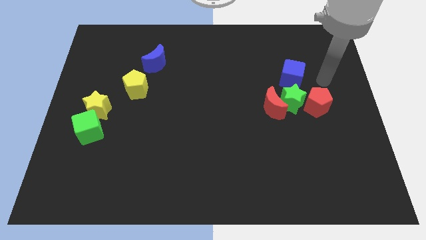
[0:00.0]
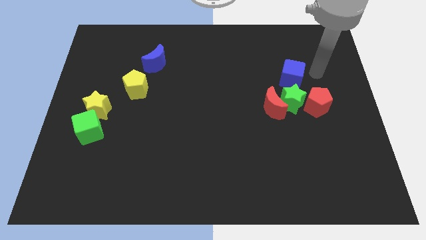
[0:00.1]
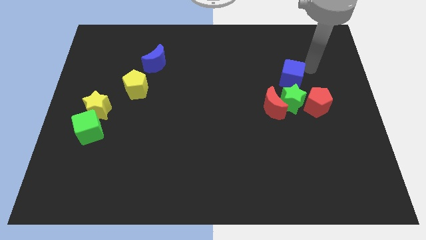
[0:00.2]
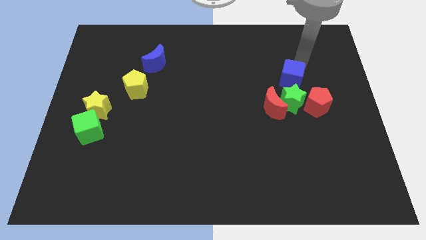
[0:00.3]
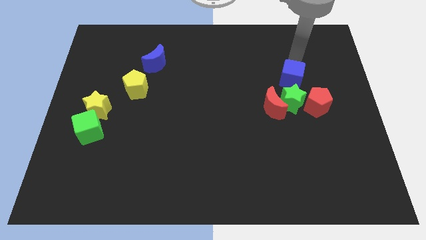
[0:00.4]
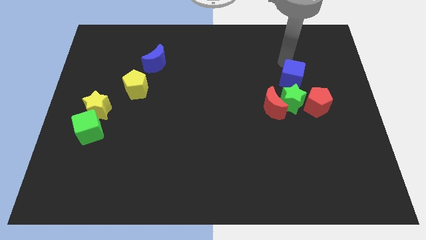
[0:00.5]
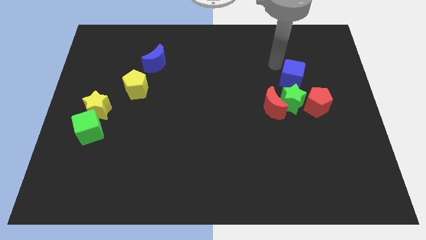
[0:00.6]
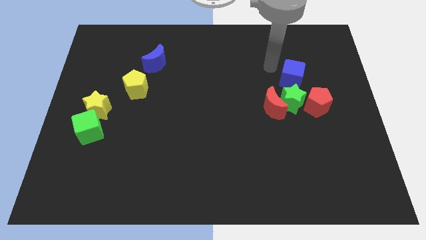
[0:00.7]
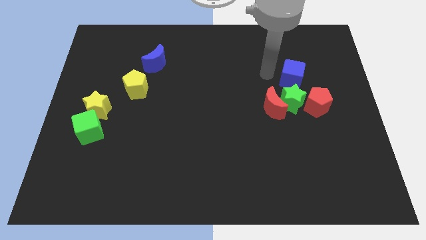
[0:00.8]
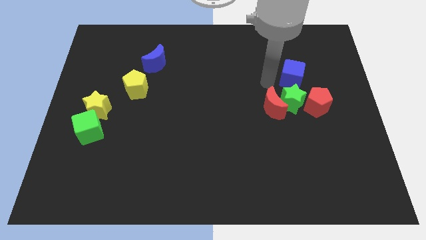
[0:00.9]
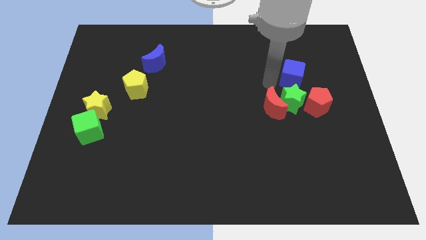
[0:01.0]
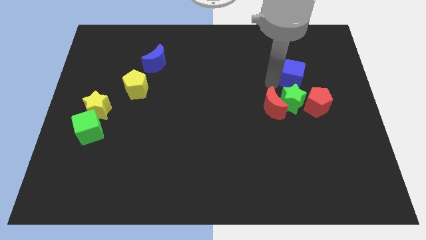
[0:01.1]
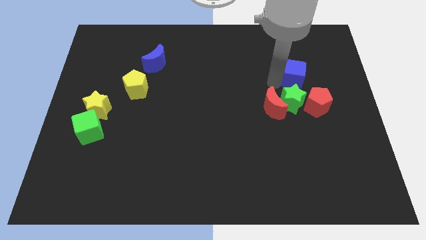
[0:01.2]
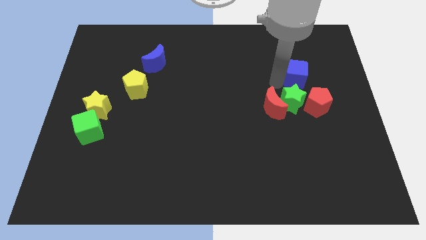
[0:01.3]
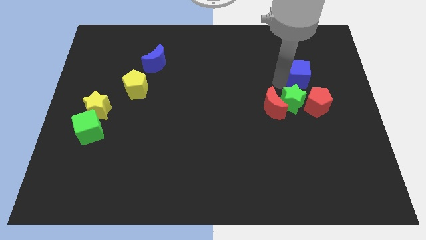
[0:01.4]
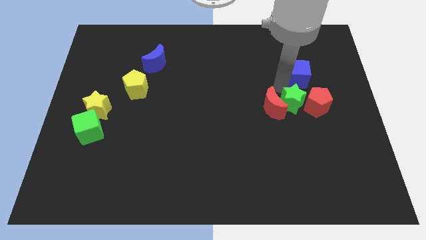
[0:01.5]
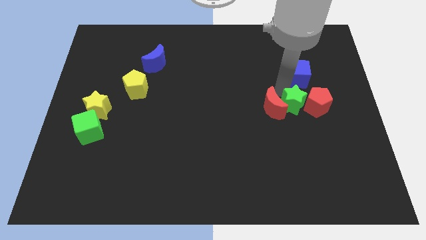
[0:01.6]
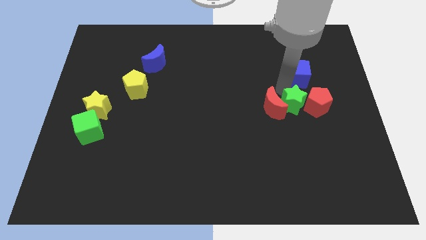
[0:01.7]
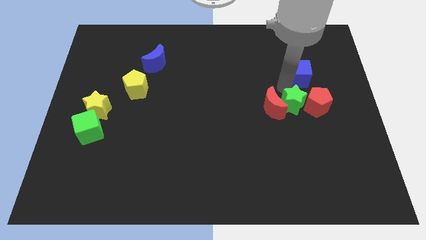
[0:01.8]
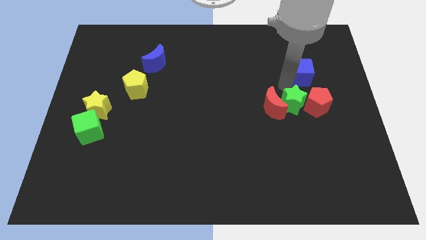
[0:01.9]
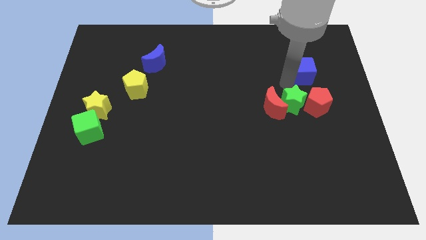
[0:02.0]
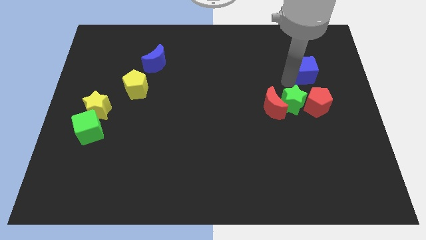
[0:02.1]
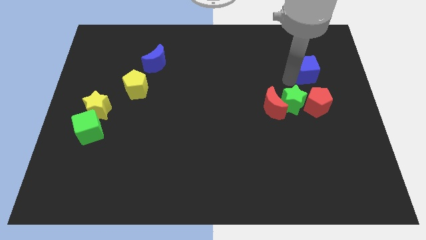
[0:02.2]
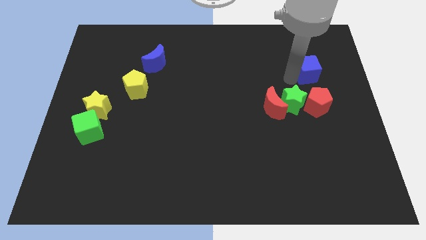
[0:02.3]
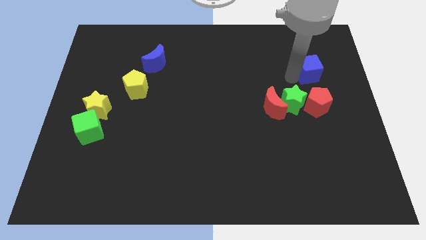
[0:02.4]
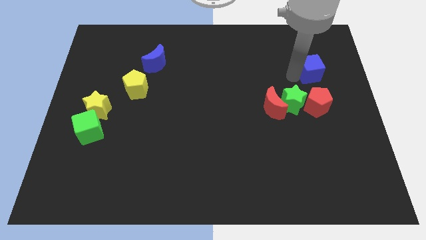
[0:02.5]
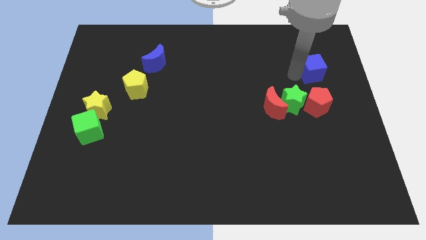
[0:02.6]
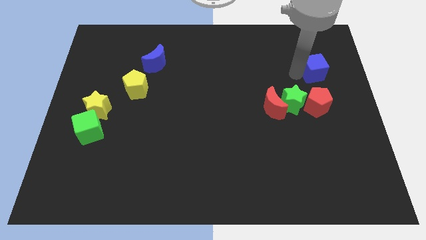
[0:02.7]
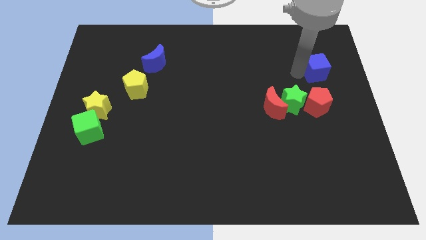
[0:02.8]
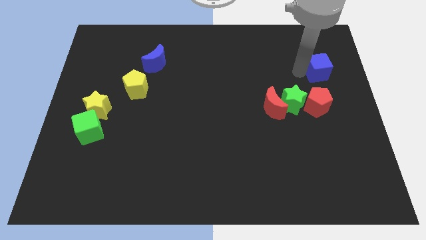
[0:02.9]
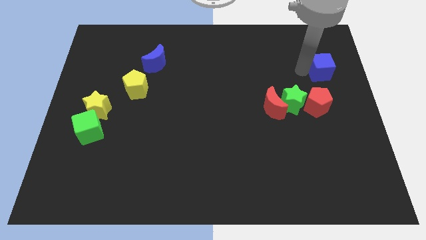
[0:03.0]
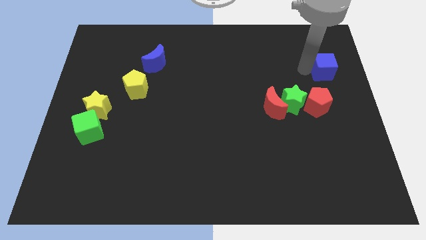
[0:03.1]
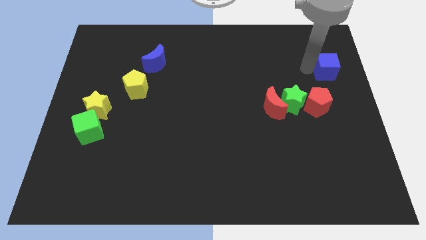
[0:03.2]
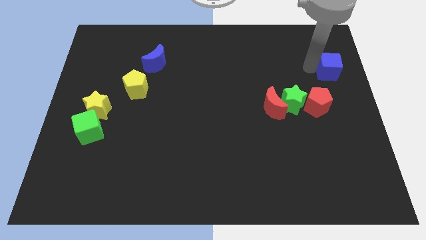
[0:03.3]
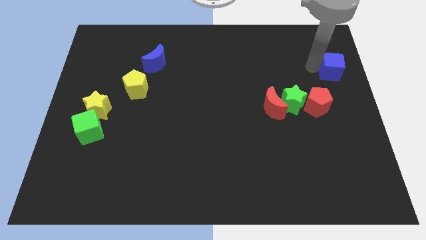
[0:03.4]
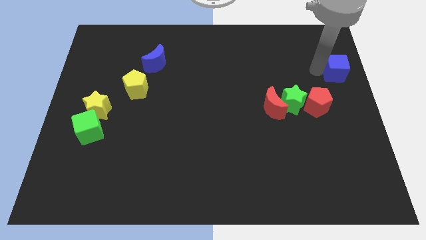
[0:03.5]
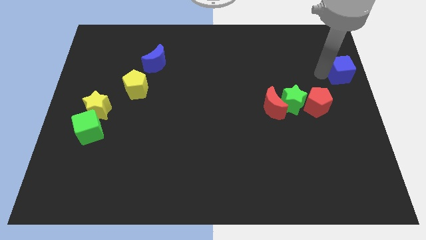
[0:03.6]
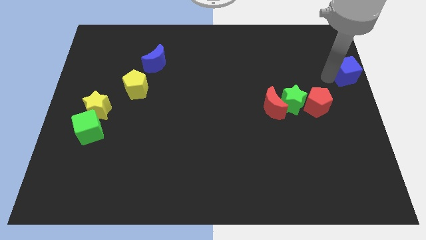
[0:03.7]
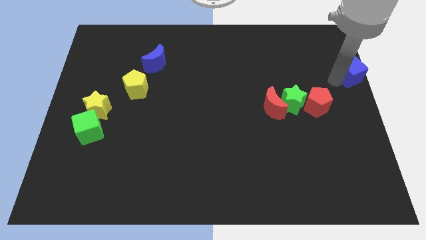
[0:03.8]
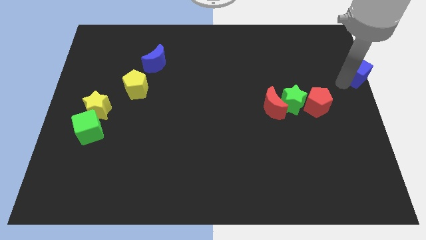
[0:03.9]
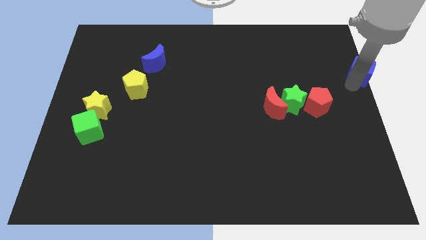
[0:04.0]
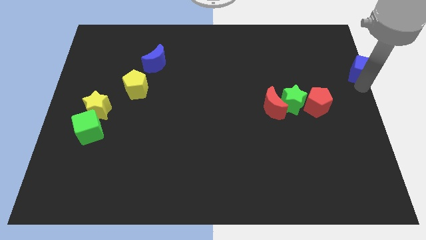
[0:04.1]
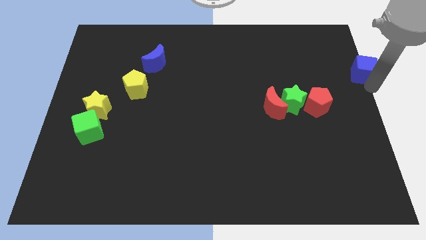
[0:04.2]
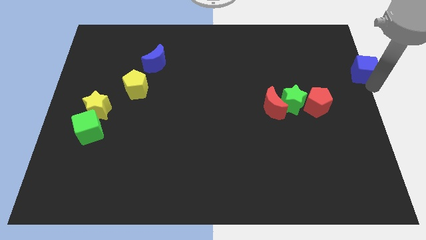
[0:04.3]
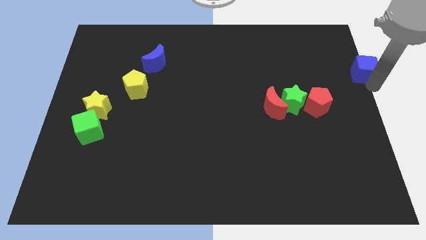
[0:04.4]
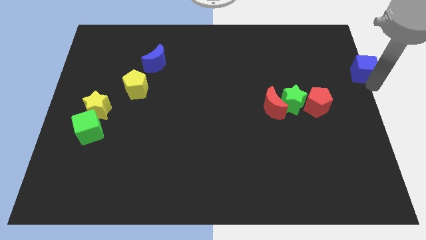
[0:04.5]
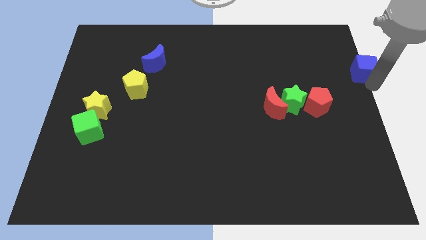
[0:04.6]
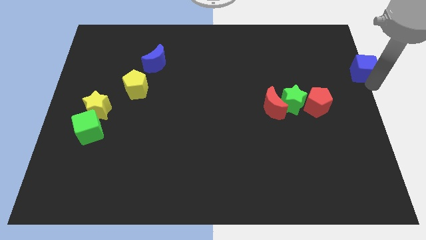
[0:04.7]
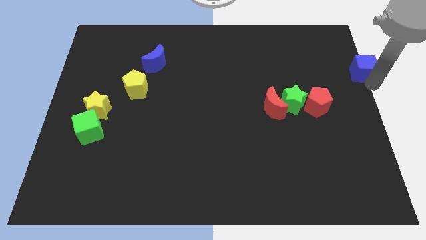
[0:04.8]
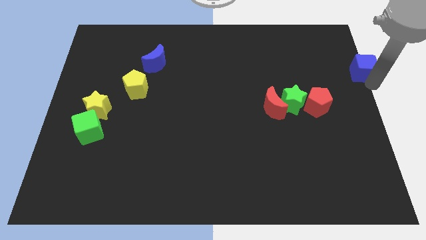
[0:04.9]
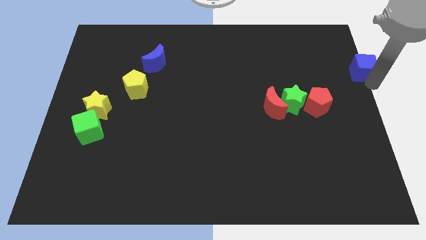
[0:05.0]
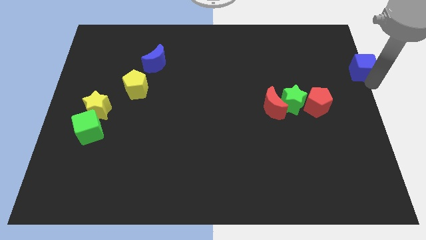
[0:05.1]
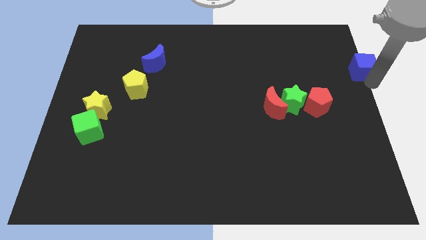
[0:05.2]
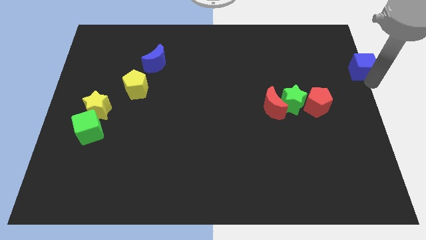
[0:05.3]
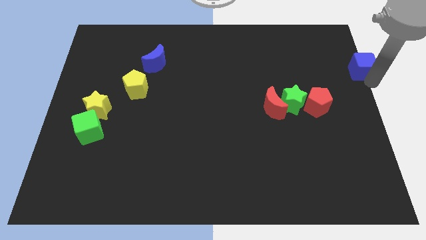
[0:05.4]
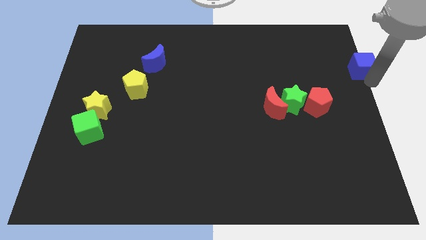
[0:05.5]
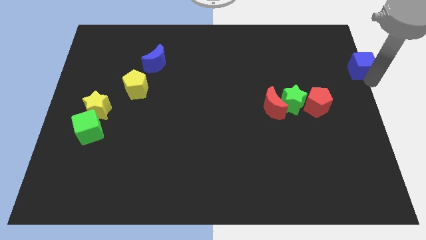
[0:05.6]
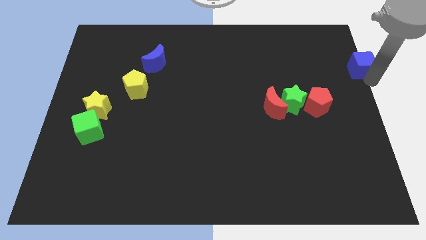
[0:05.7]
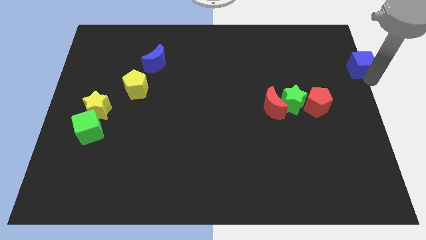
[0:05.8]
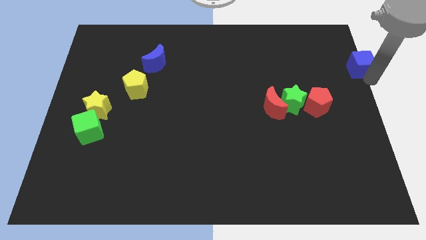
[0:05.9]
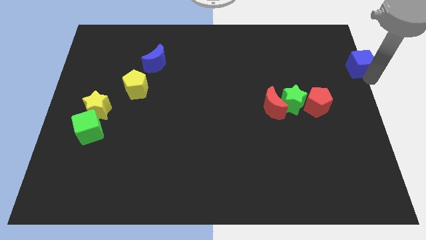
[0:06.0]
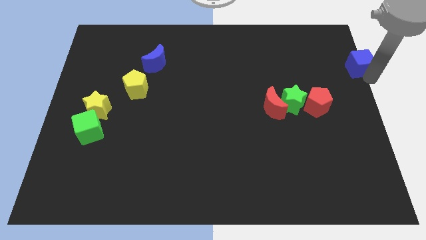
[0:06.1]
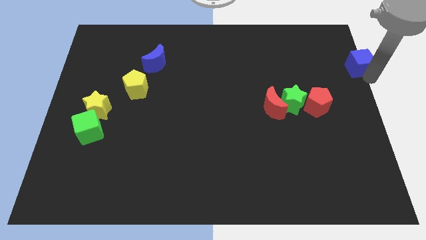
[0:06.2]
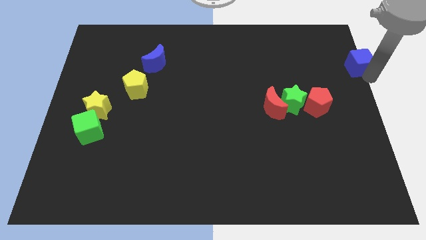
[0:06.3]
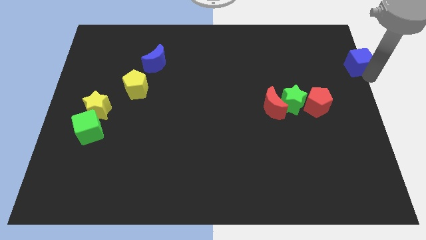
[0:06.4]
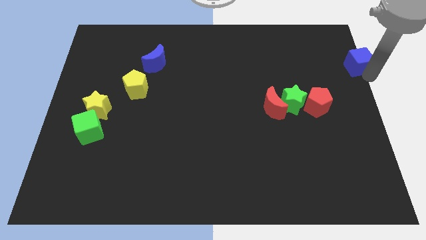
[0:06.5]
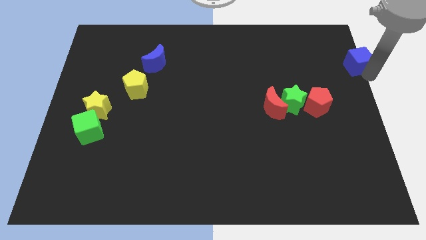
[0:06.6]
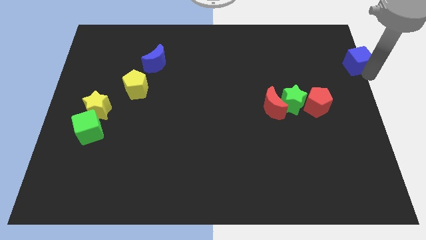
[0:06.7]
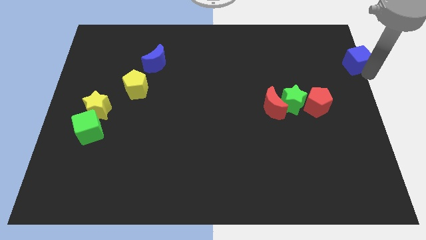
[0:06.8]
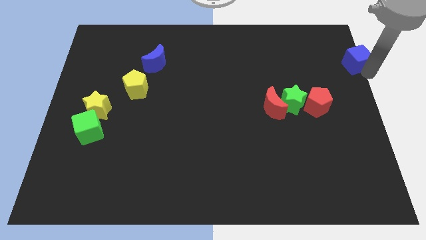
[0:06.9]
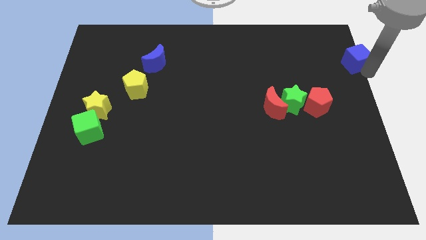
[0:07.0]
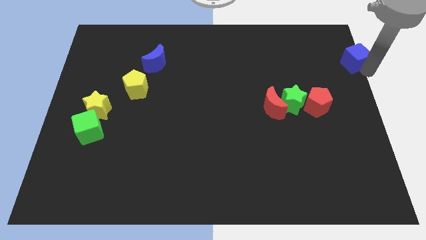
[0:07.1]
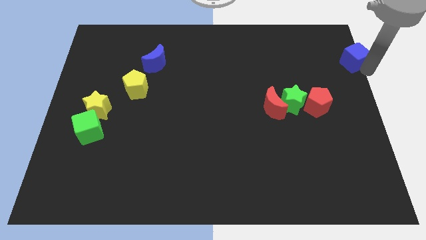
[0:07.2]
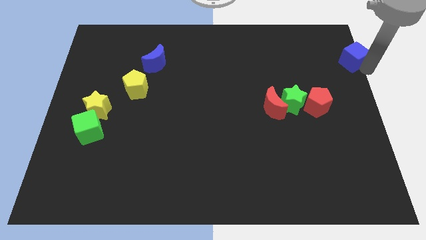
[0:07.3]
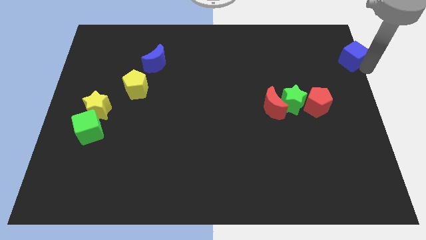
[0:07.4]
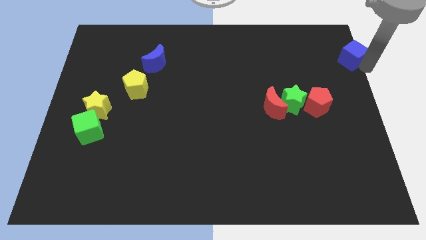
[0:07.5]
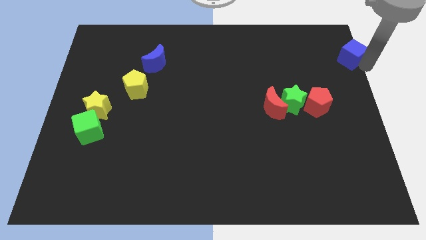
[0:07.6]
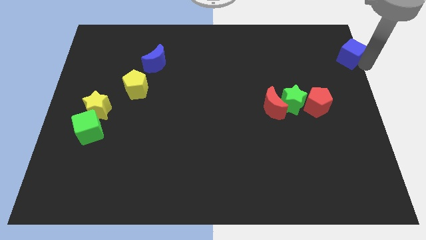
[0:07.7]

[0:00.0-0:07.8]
put the blue cube to the top right
